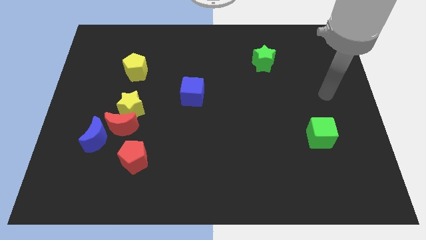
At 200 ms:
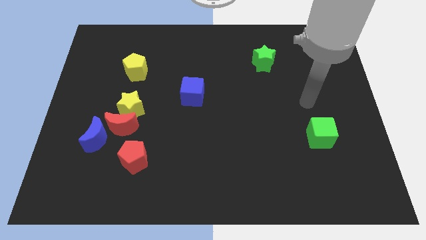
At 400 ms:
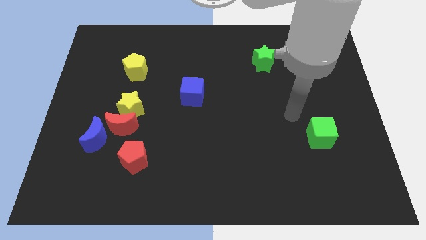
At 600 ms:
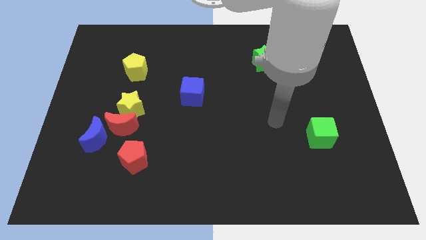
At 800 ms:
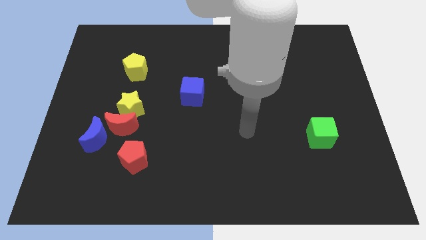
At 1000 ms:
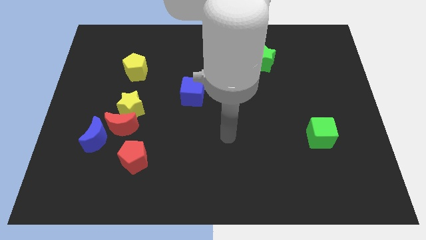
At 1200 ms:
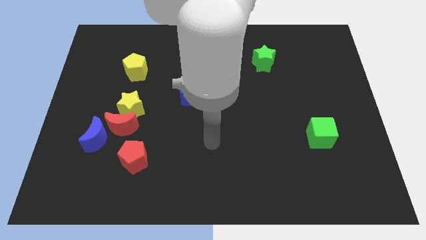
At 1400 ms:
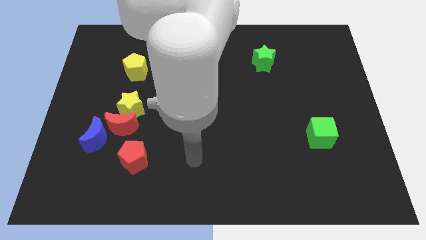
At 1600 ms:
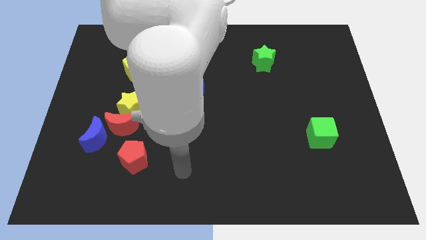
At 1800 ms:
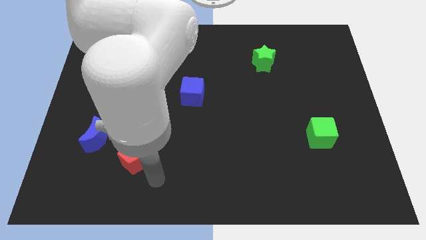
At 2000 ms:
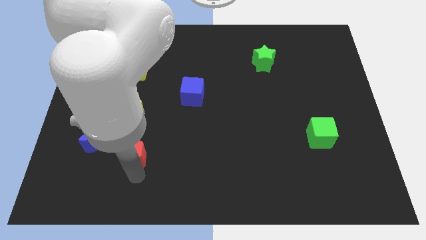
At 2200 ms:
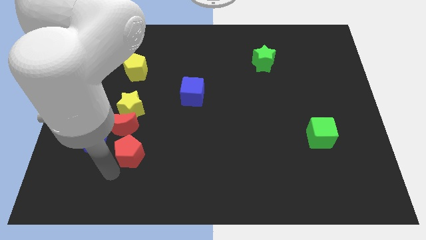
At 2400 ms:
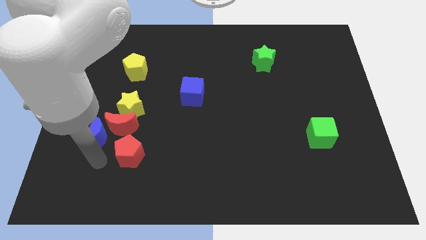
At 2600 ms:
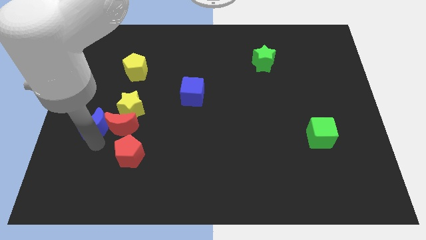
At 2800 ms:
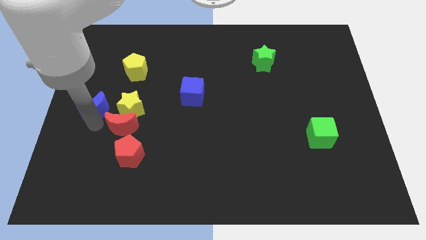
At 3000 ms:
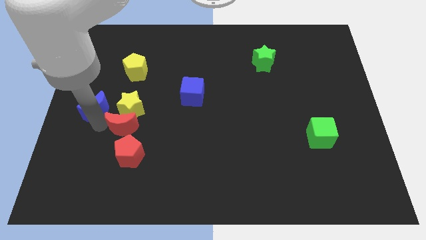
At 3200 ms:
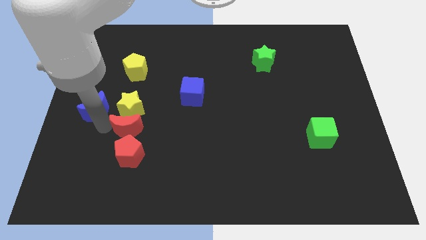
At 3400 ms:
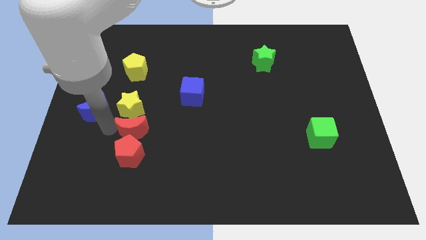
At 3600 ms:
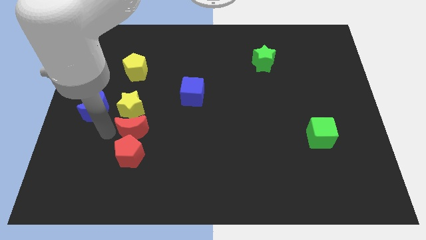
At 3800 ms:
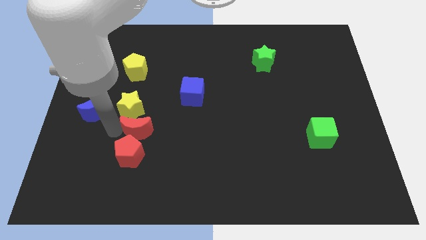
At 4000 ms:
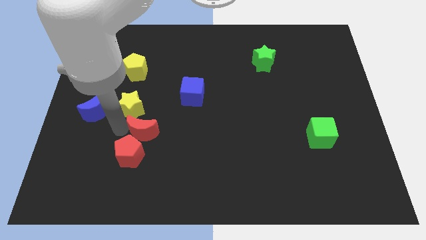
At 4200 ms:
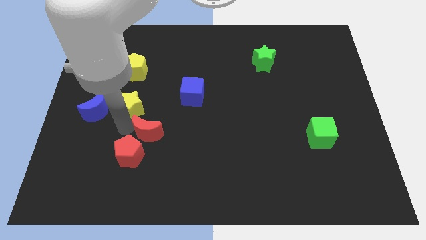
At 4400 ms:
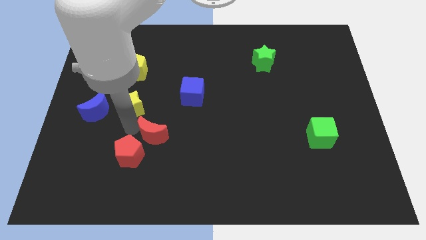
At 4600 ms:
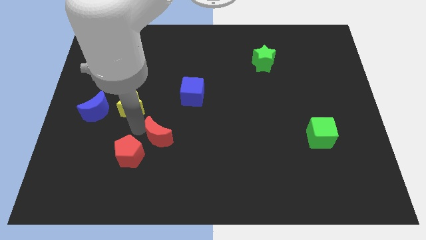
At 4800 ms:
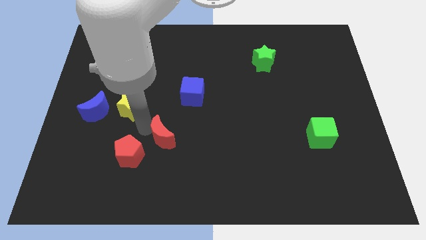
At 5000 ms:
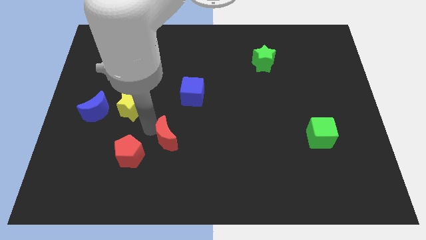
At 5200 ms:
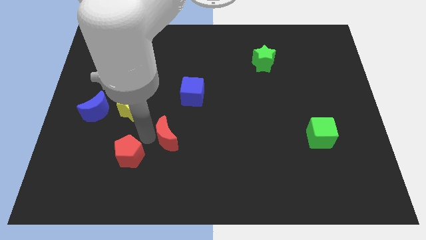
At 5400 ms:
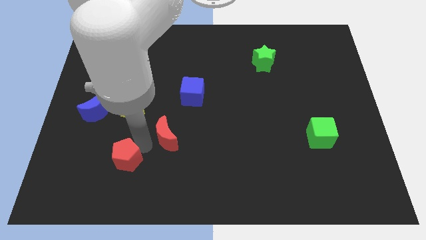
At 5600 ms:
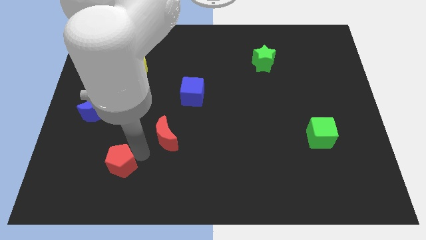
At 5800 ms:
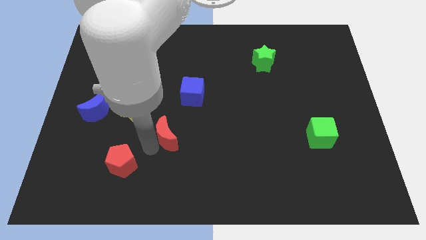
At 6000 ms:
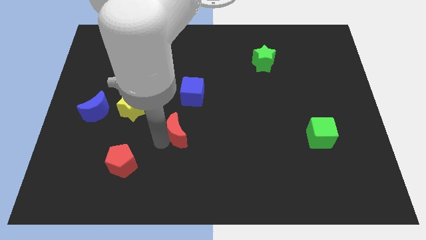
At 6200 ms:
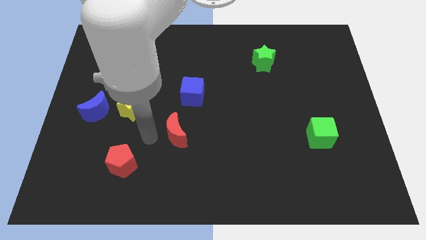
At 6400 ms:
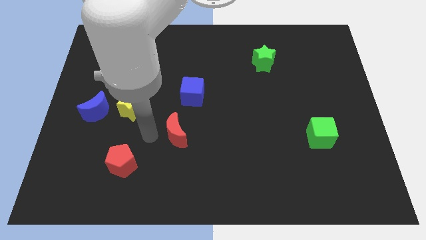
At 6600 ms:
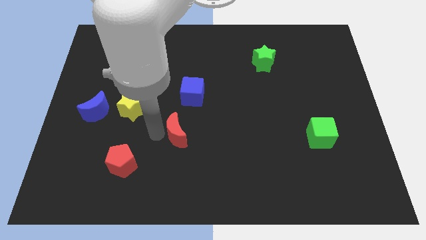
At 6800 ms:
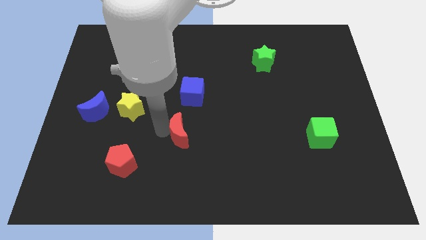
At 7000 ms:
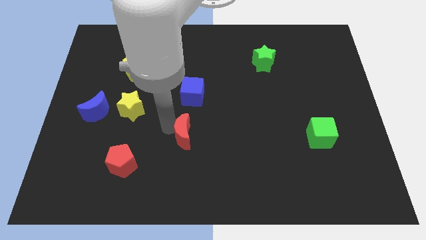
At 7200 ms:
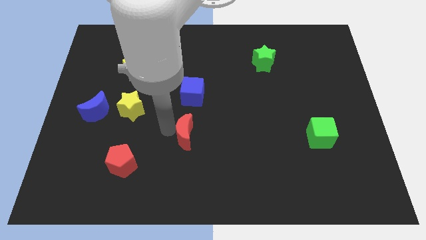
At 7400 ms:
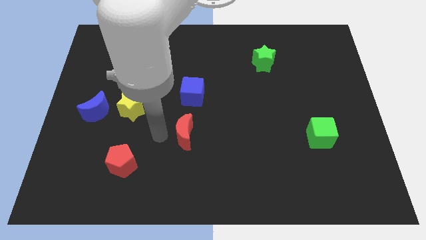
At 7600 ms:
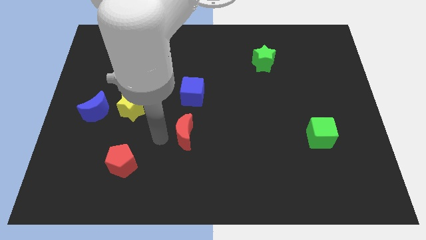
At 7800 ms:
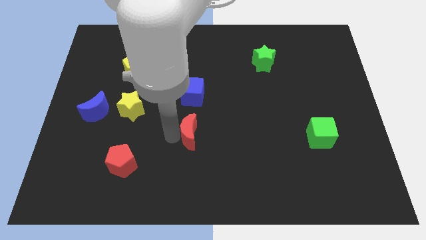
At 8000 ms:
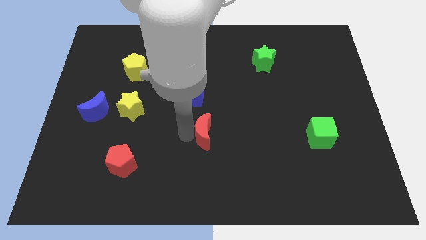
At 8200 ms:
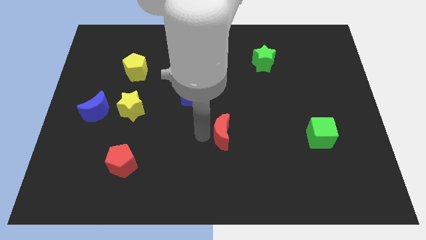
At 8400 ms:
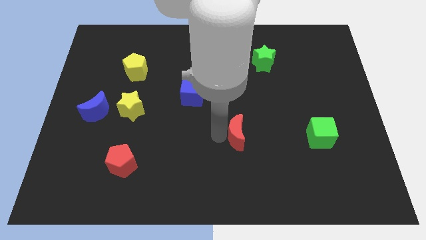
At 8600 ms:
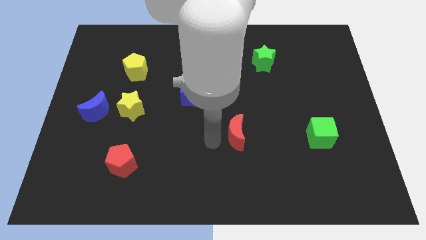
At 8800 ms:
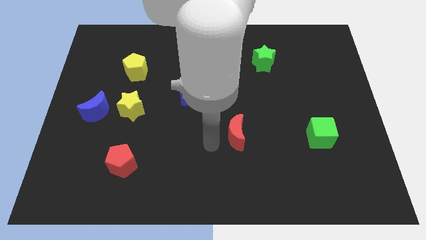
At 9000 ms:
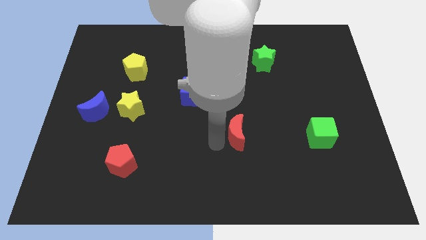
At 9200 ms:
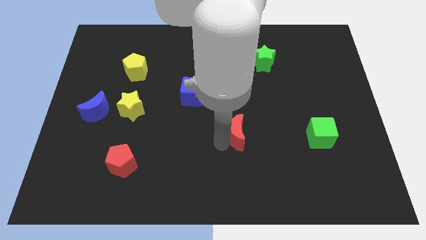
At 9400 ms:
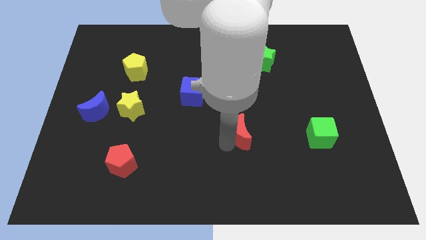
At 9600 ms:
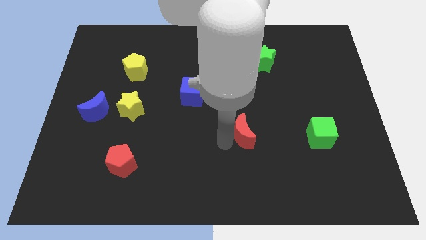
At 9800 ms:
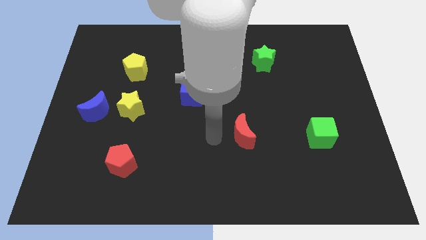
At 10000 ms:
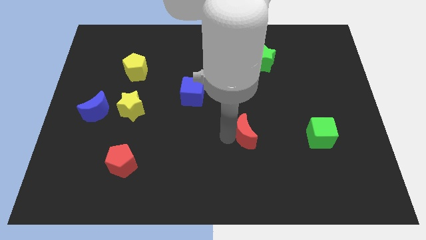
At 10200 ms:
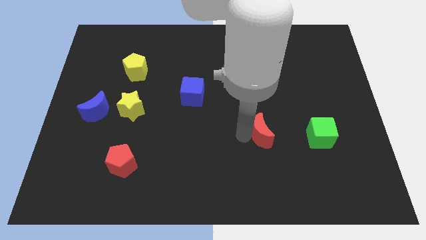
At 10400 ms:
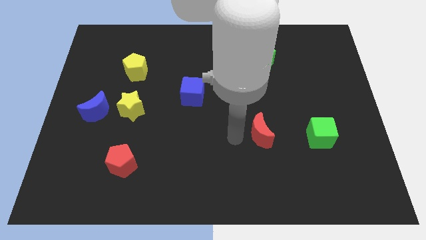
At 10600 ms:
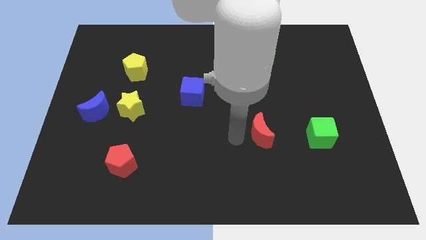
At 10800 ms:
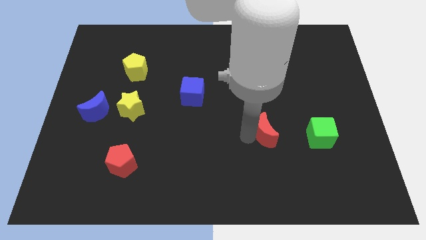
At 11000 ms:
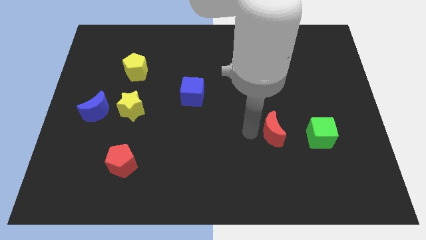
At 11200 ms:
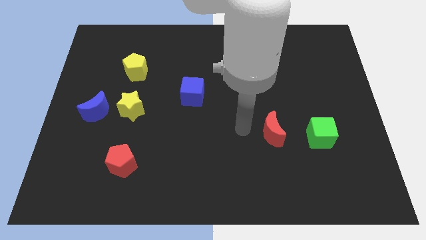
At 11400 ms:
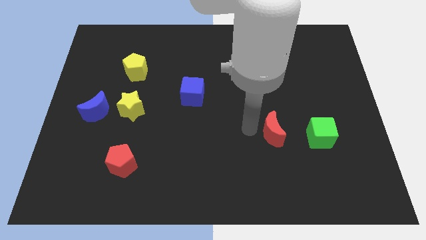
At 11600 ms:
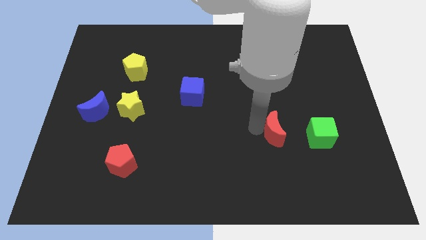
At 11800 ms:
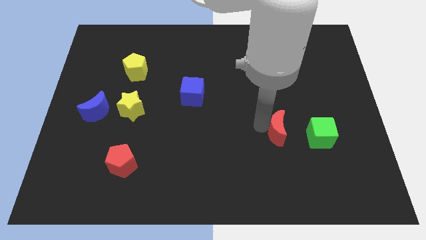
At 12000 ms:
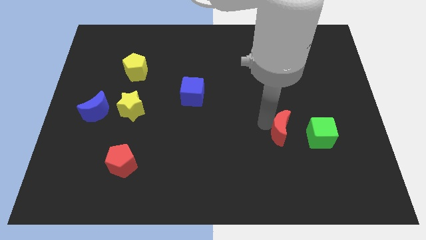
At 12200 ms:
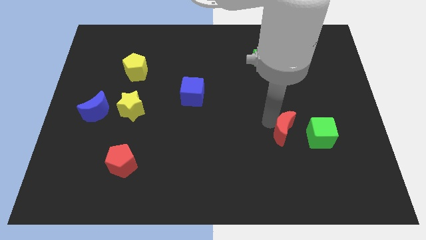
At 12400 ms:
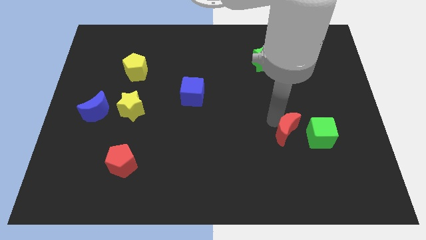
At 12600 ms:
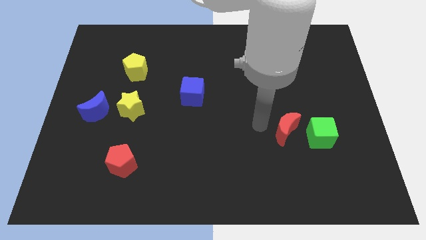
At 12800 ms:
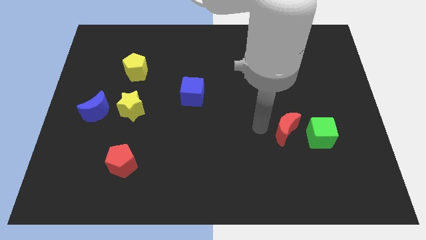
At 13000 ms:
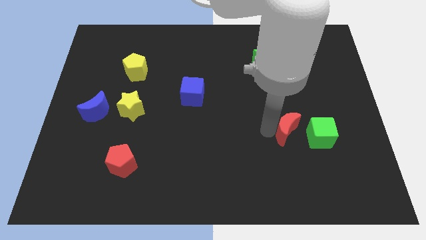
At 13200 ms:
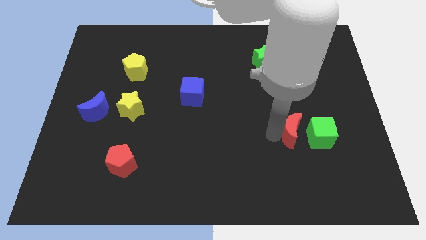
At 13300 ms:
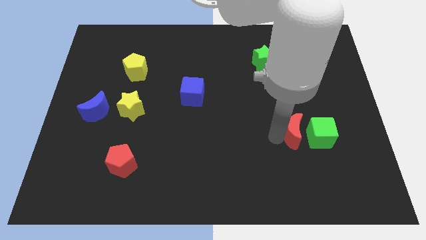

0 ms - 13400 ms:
slide the red moon towards the green cube

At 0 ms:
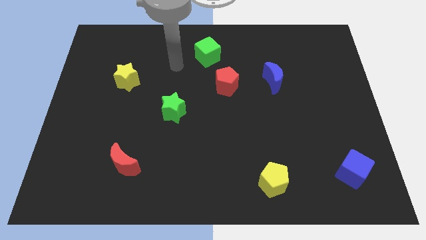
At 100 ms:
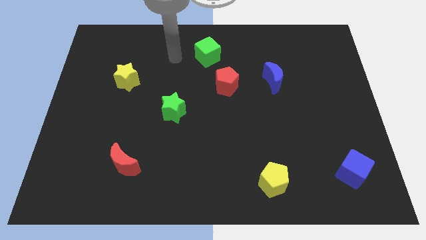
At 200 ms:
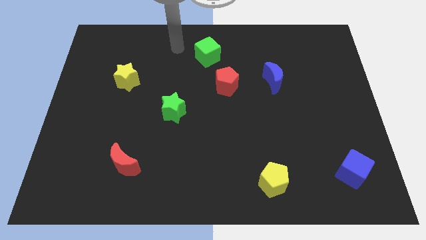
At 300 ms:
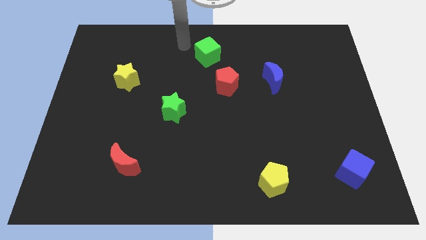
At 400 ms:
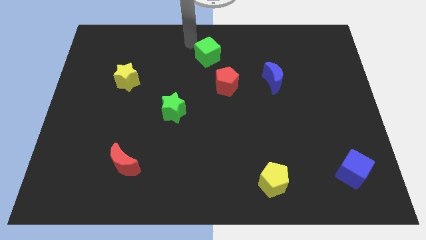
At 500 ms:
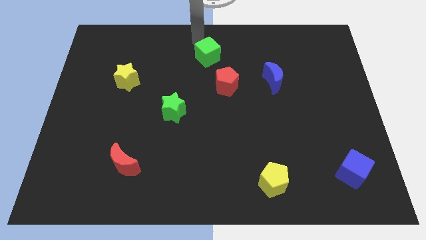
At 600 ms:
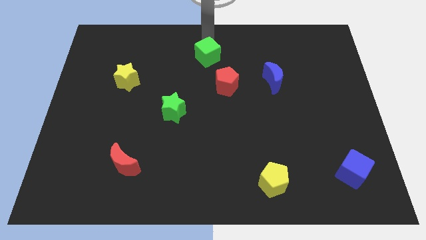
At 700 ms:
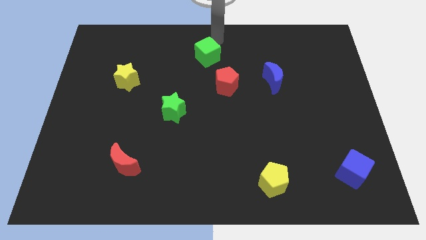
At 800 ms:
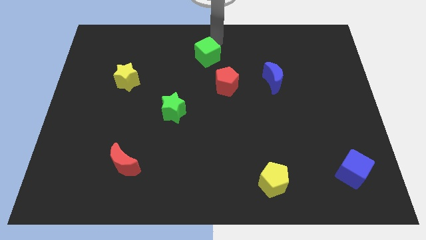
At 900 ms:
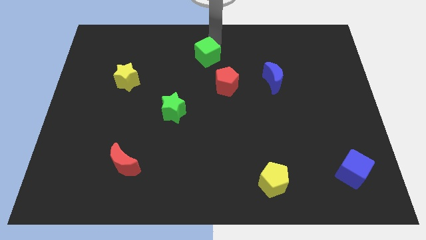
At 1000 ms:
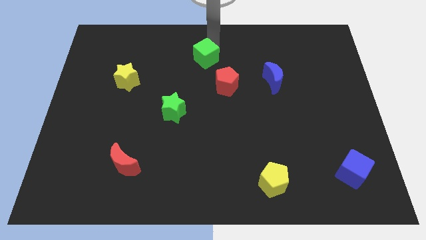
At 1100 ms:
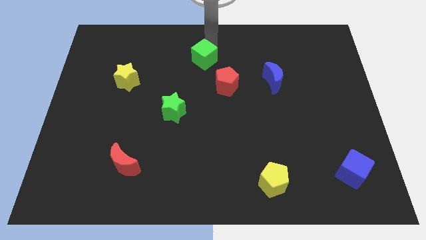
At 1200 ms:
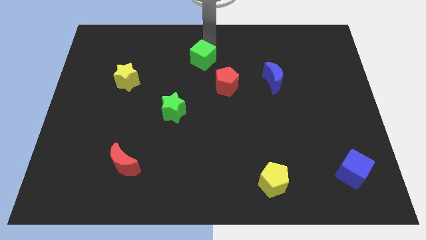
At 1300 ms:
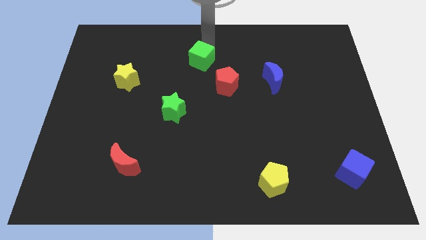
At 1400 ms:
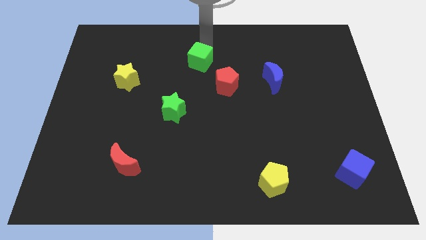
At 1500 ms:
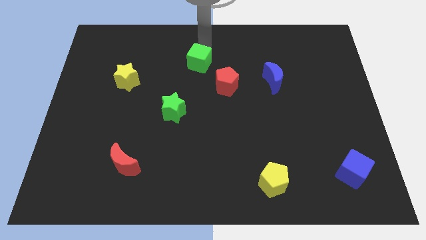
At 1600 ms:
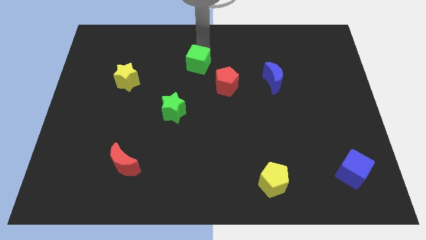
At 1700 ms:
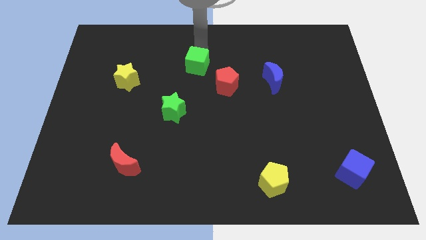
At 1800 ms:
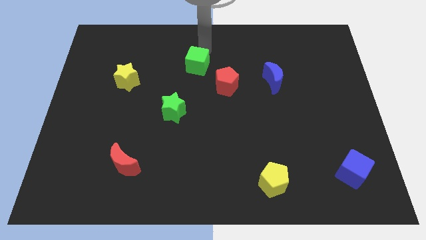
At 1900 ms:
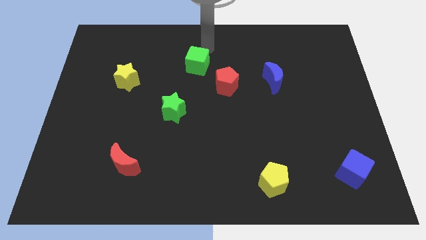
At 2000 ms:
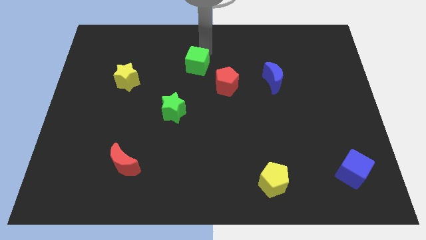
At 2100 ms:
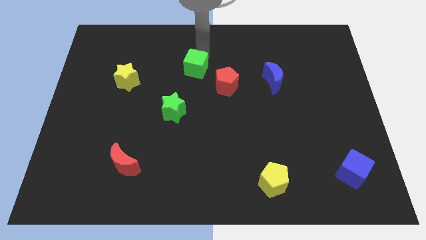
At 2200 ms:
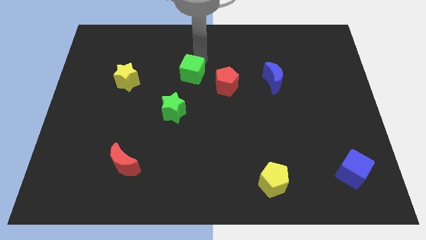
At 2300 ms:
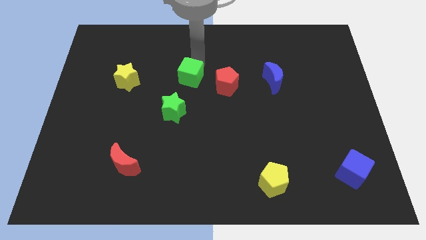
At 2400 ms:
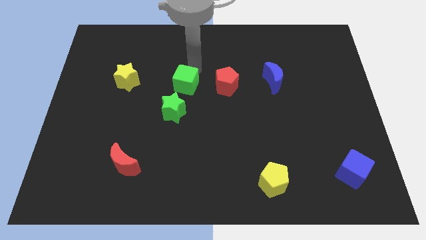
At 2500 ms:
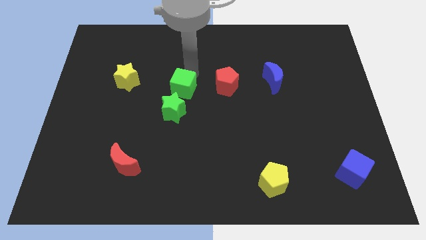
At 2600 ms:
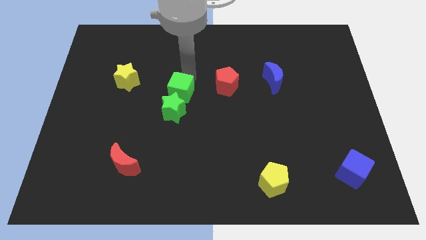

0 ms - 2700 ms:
move the green cube close to the green star
